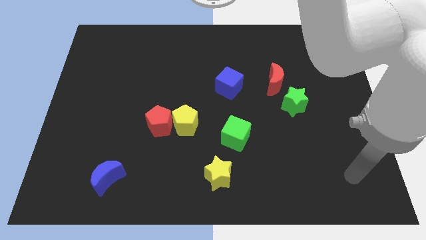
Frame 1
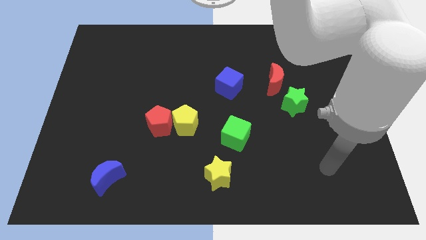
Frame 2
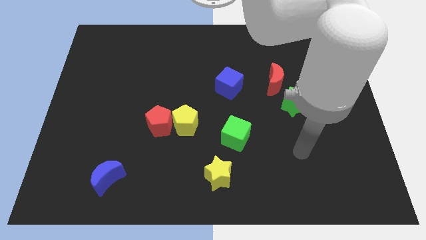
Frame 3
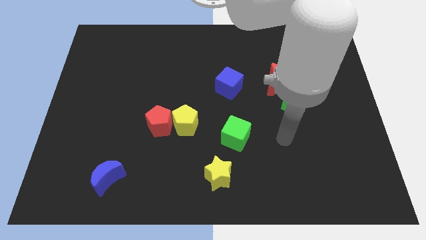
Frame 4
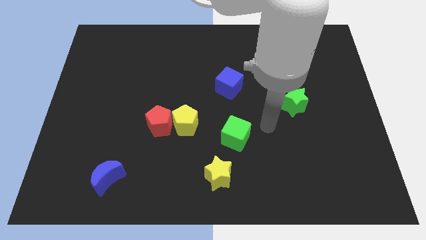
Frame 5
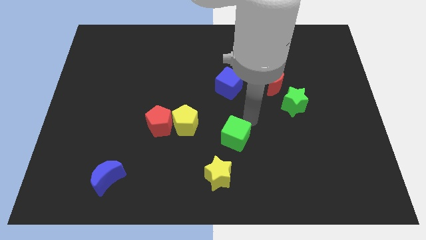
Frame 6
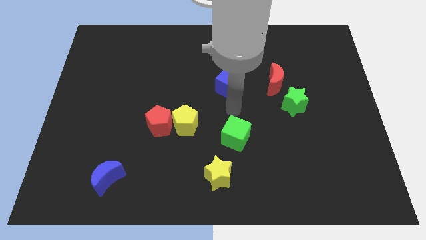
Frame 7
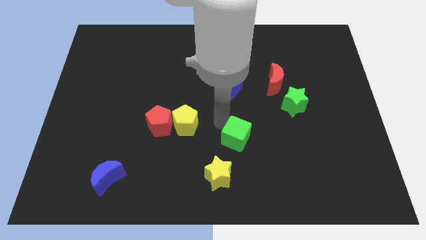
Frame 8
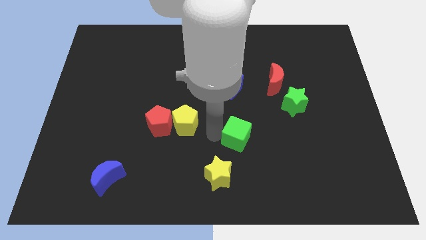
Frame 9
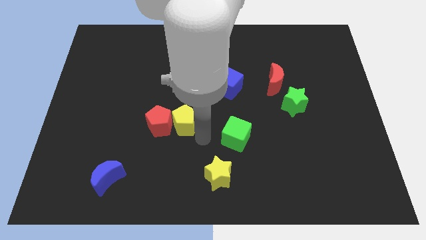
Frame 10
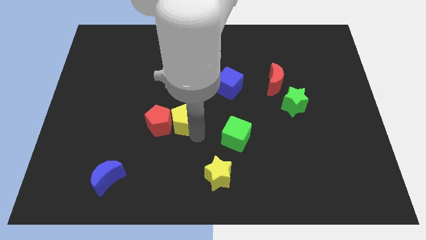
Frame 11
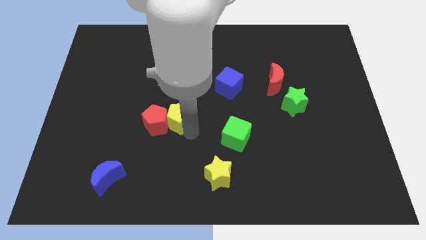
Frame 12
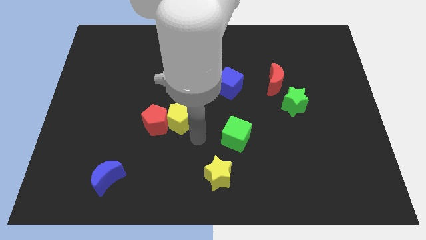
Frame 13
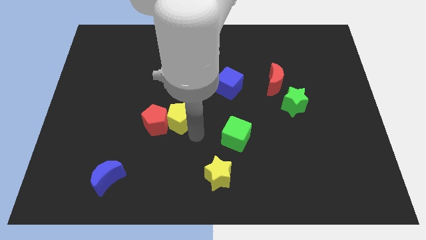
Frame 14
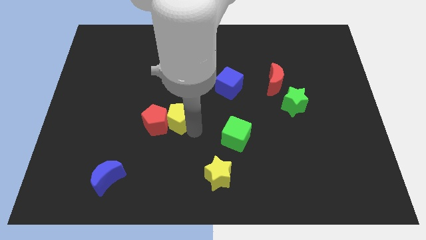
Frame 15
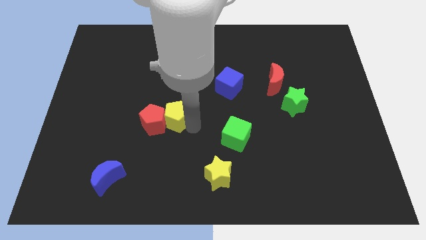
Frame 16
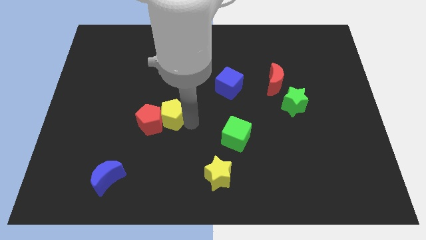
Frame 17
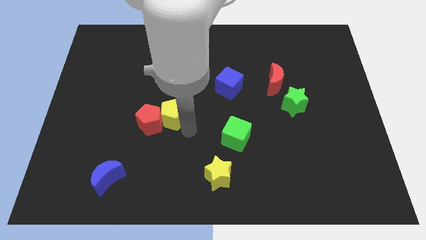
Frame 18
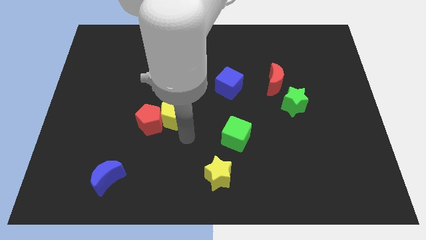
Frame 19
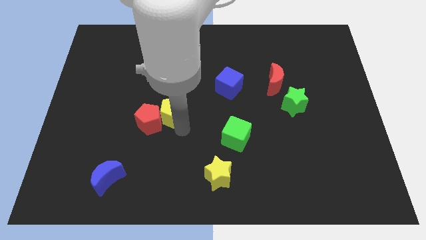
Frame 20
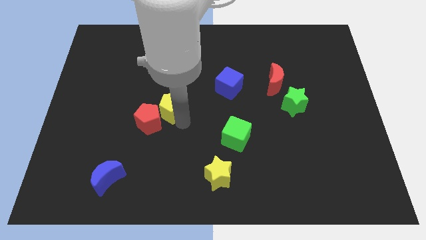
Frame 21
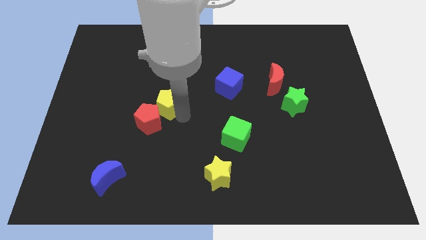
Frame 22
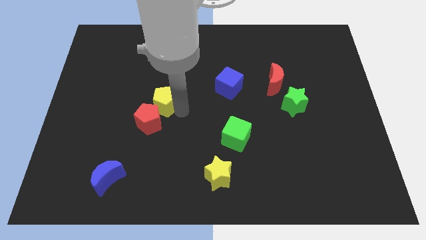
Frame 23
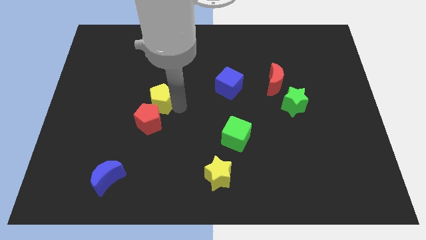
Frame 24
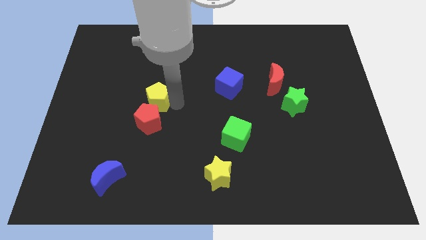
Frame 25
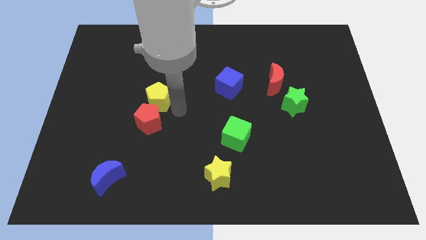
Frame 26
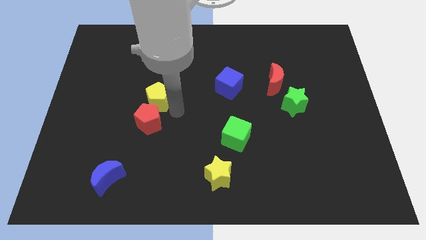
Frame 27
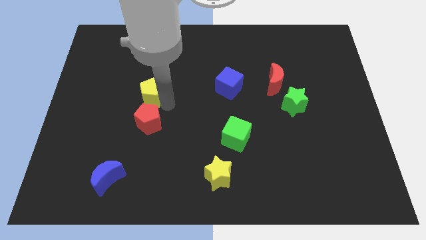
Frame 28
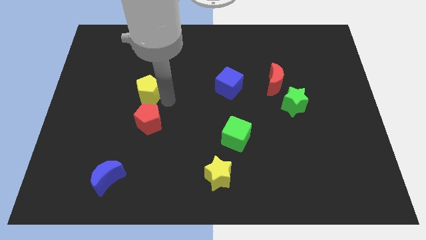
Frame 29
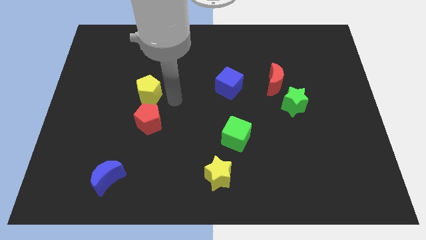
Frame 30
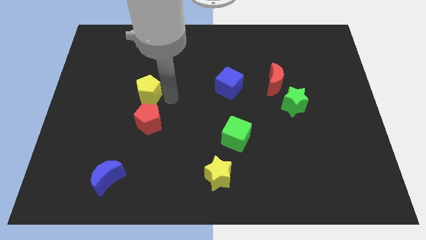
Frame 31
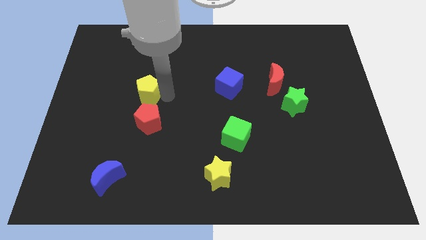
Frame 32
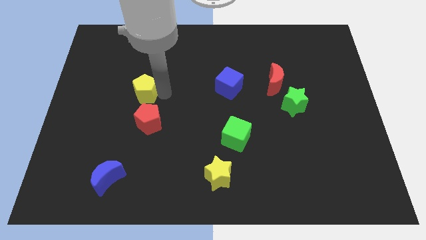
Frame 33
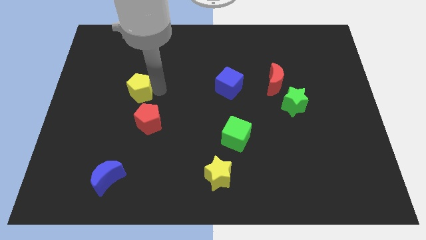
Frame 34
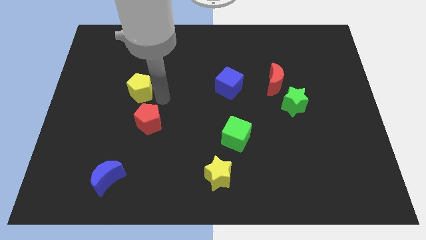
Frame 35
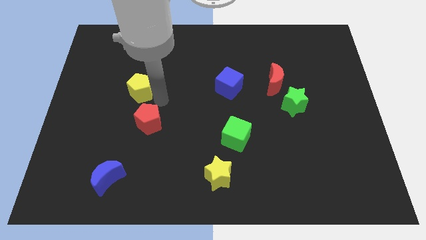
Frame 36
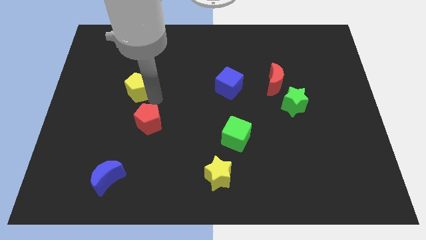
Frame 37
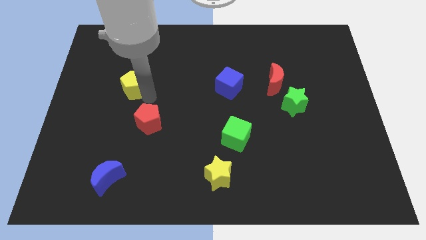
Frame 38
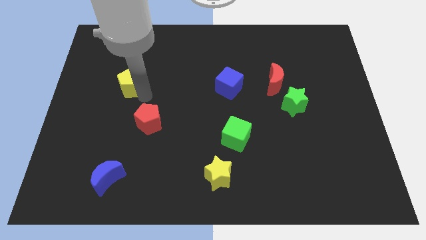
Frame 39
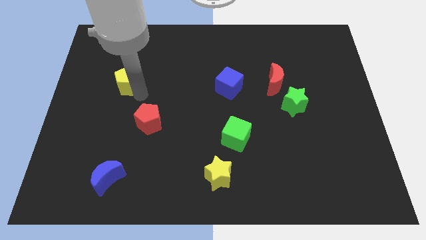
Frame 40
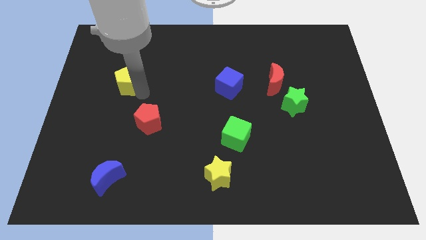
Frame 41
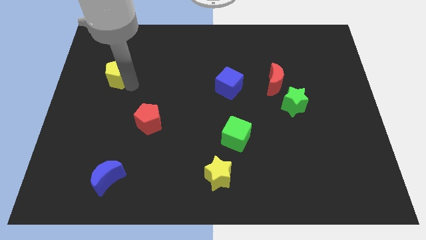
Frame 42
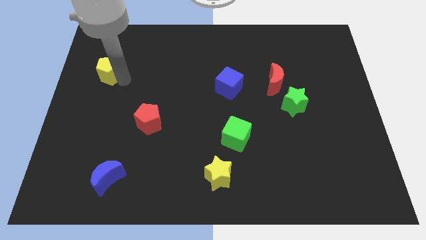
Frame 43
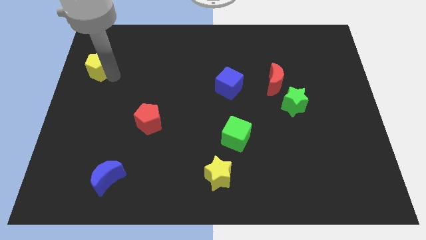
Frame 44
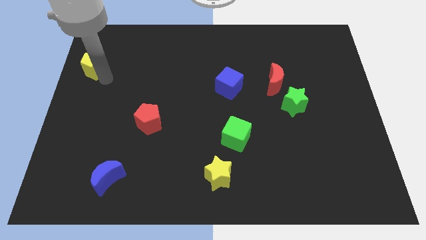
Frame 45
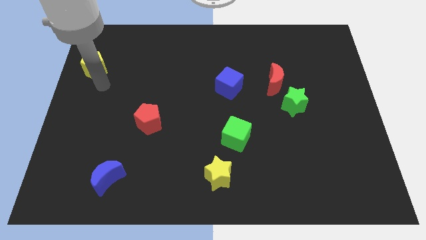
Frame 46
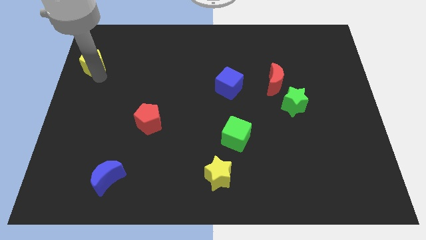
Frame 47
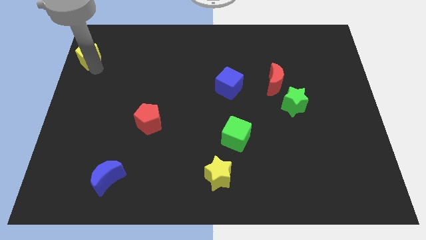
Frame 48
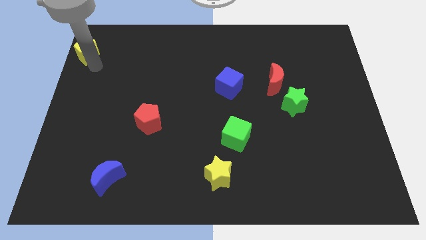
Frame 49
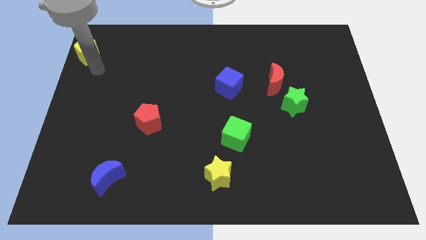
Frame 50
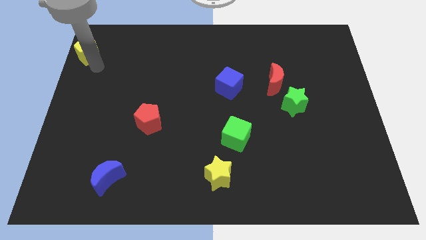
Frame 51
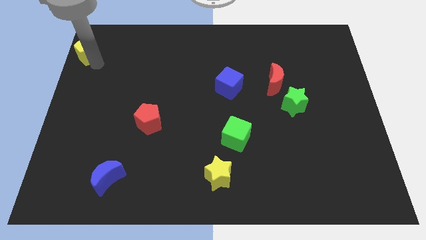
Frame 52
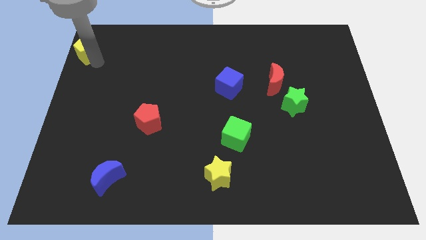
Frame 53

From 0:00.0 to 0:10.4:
move the yellow pentagon to the upper left corner

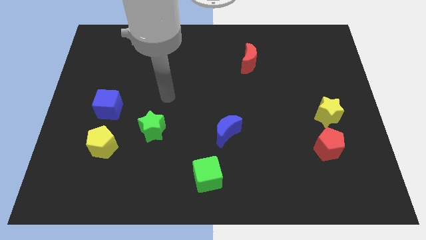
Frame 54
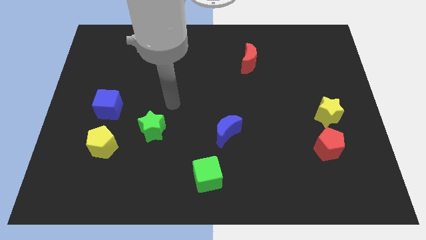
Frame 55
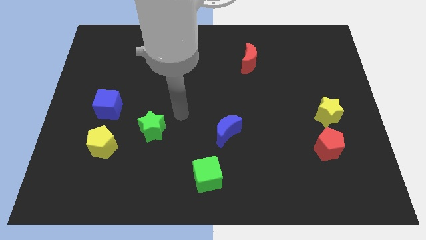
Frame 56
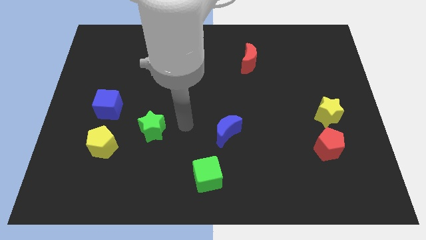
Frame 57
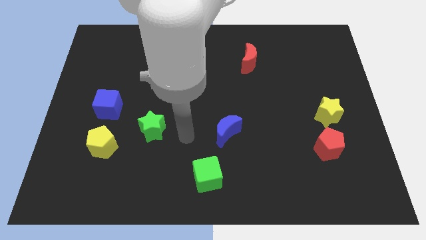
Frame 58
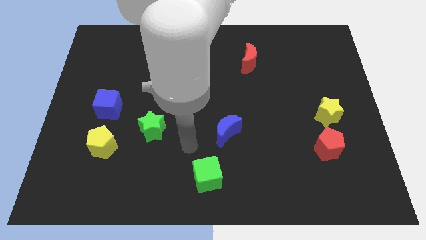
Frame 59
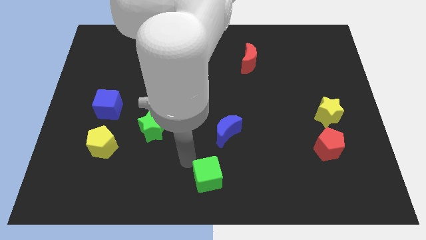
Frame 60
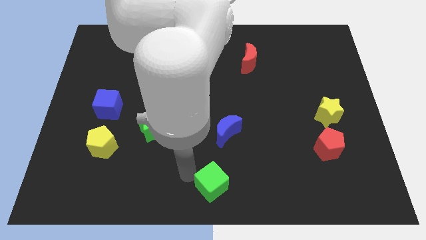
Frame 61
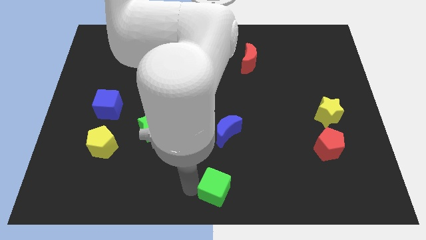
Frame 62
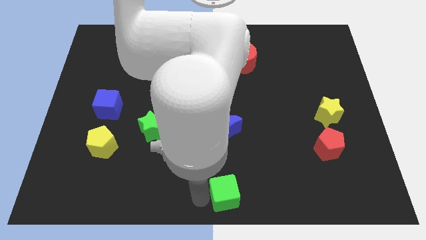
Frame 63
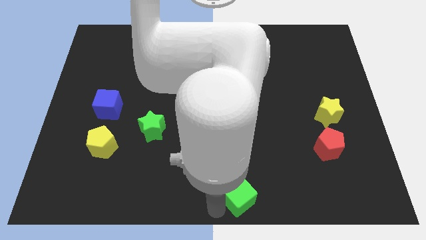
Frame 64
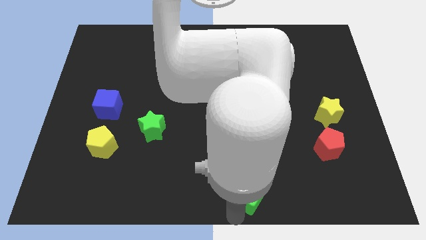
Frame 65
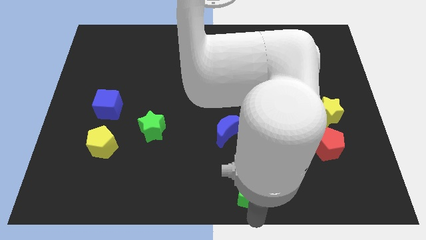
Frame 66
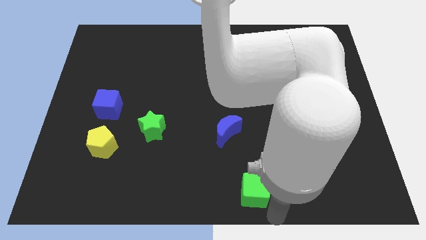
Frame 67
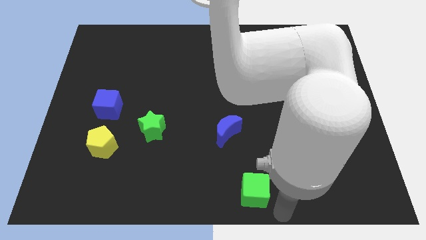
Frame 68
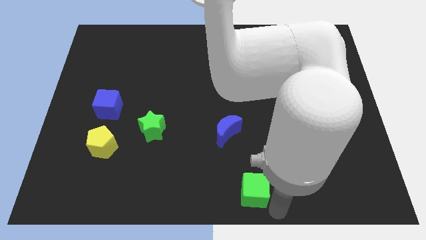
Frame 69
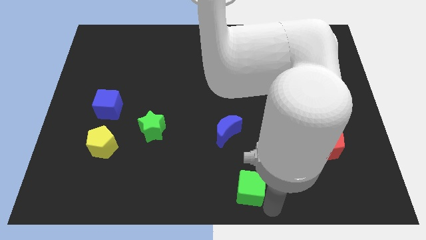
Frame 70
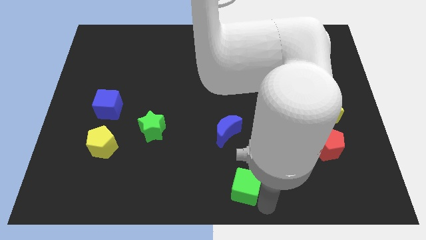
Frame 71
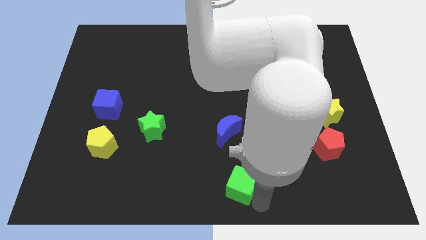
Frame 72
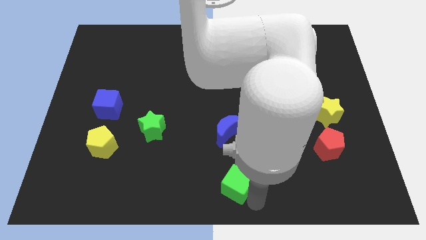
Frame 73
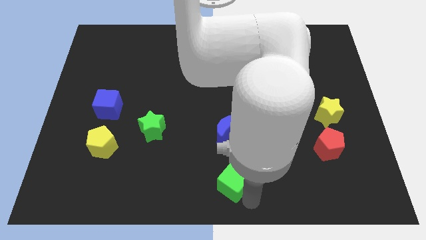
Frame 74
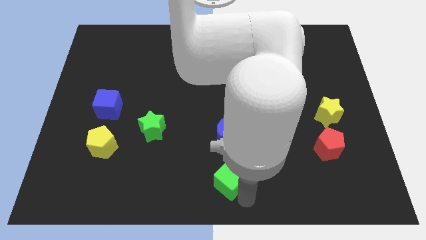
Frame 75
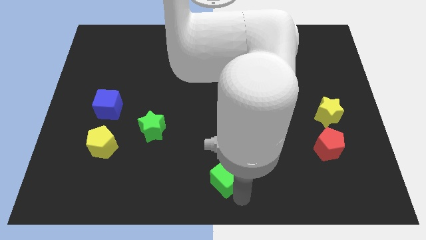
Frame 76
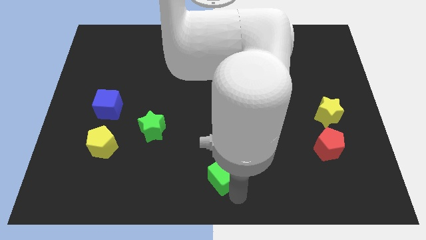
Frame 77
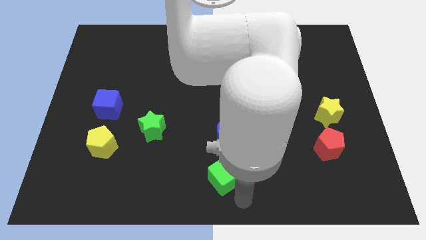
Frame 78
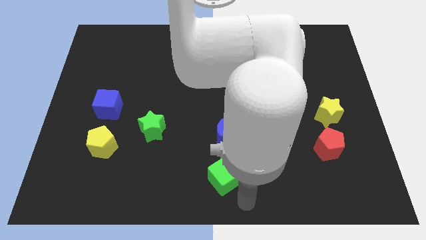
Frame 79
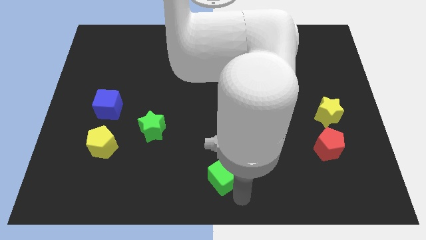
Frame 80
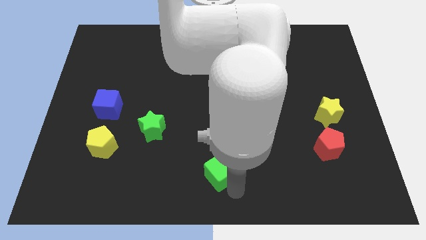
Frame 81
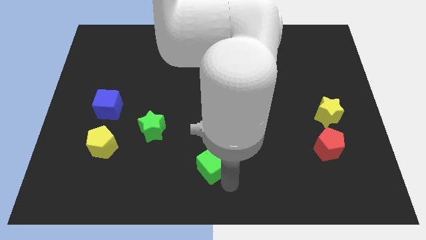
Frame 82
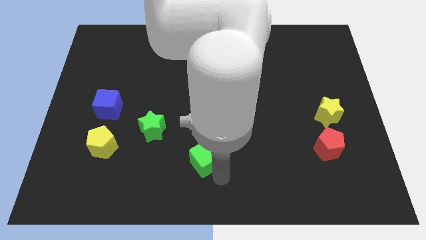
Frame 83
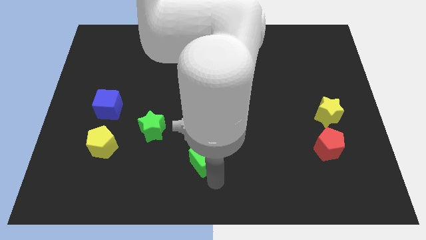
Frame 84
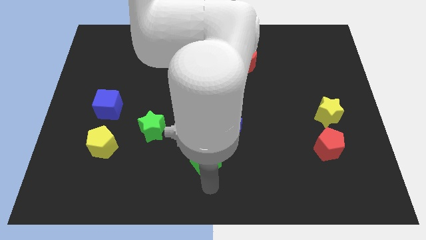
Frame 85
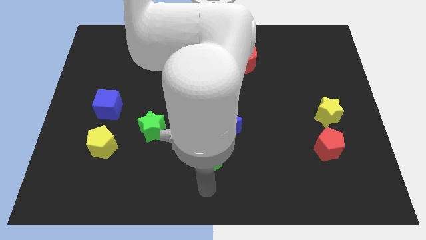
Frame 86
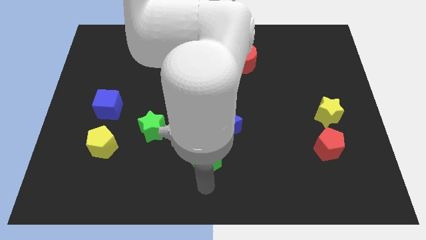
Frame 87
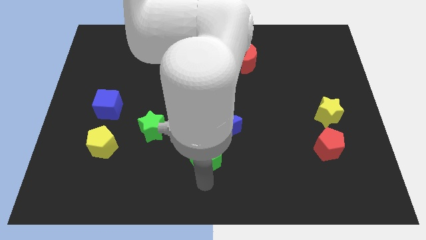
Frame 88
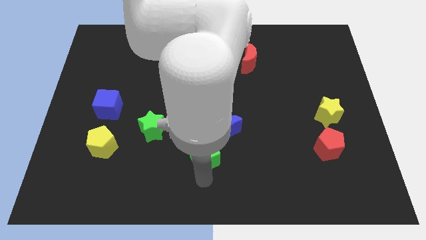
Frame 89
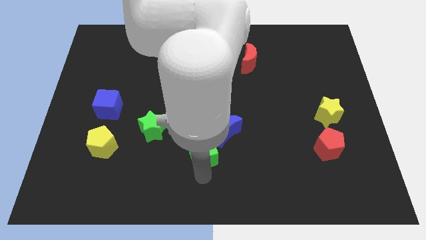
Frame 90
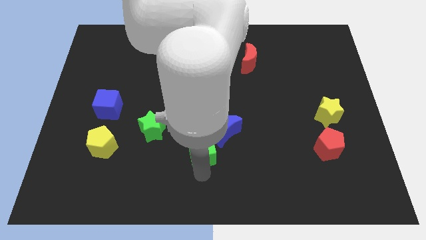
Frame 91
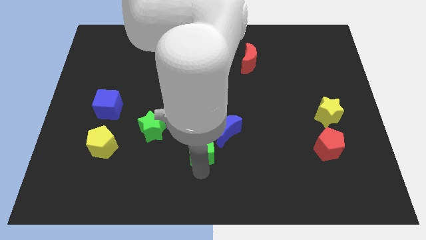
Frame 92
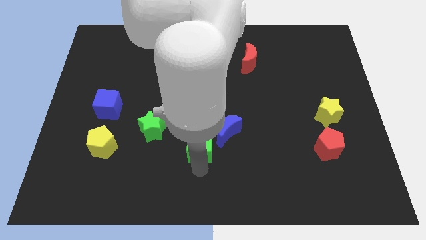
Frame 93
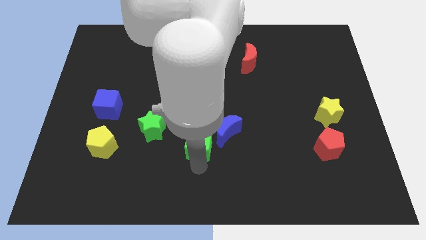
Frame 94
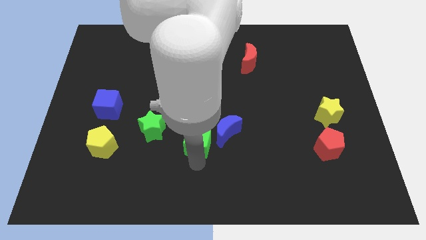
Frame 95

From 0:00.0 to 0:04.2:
put the green cube to the center of the board
